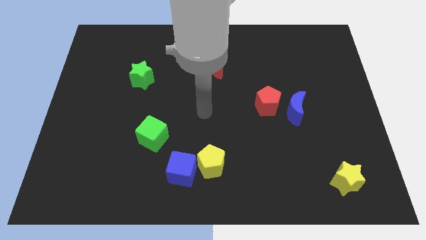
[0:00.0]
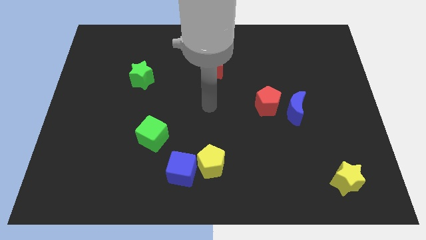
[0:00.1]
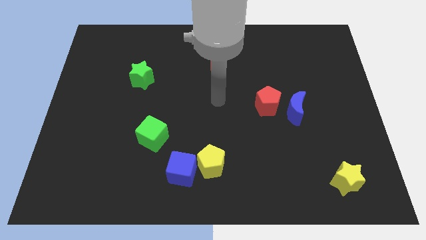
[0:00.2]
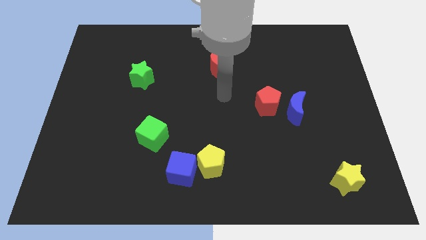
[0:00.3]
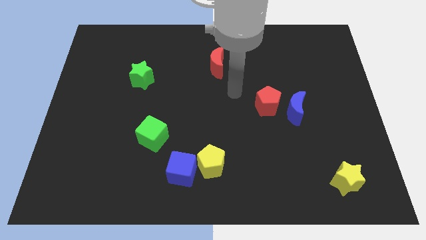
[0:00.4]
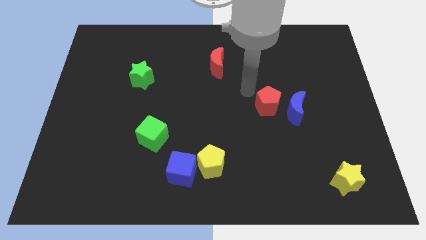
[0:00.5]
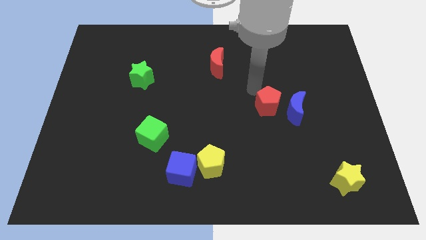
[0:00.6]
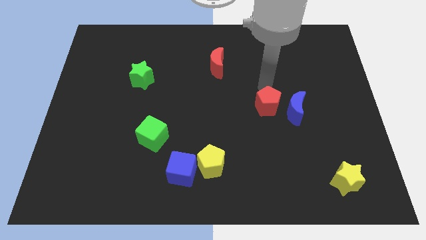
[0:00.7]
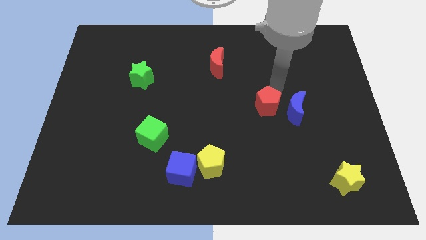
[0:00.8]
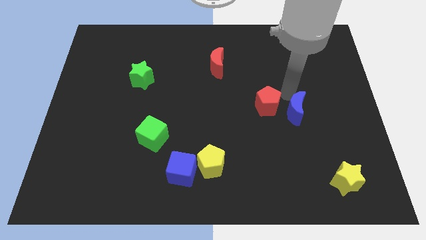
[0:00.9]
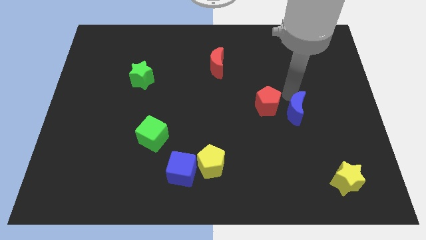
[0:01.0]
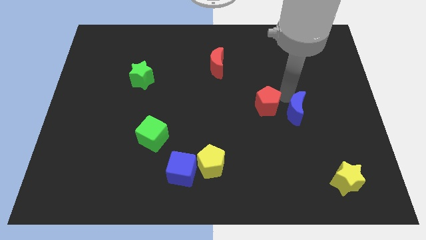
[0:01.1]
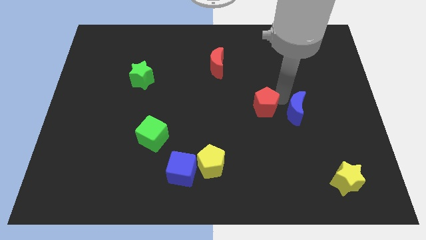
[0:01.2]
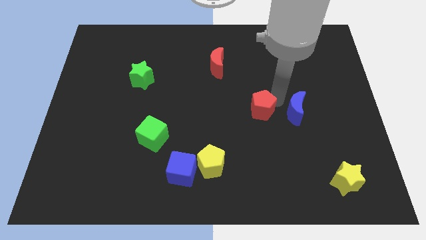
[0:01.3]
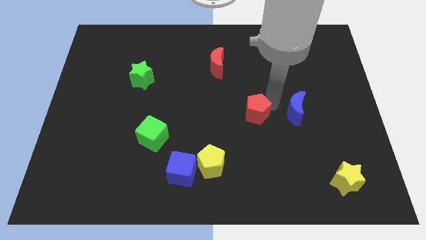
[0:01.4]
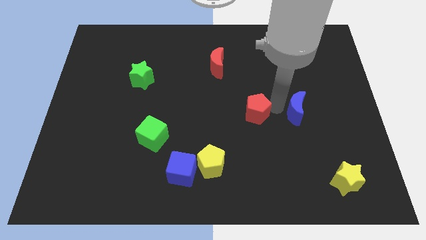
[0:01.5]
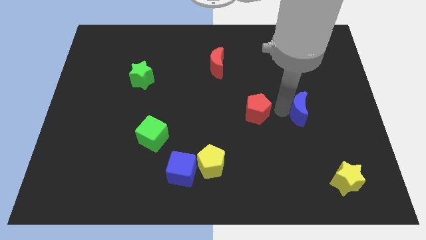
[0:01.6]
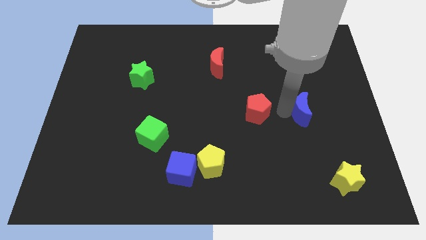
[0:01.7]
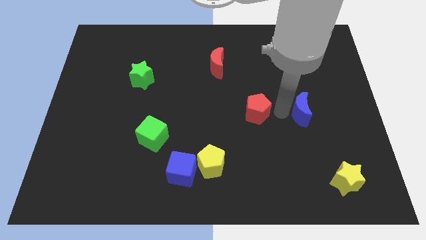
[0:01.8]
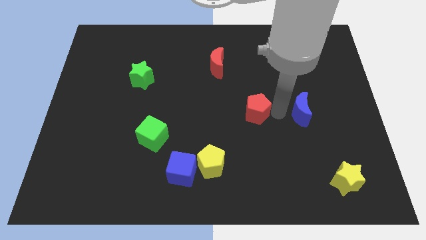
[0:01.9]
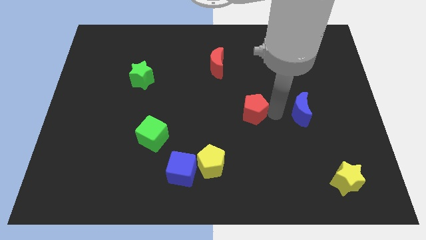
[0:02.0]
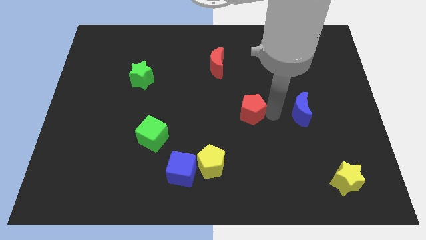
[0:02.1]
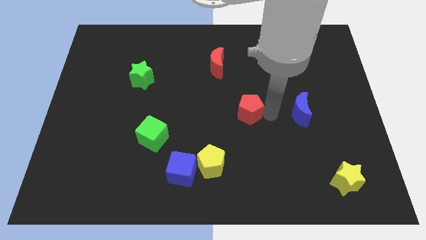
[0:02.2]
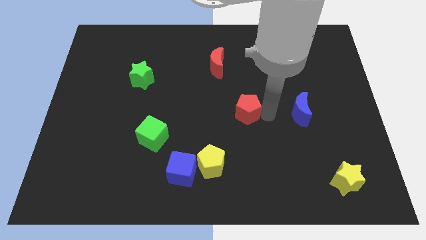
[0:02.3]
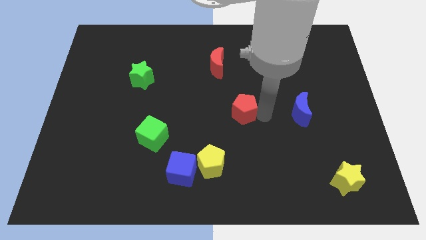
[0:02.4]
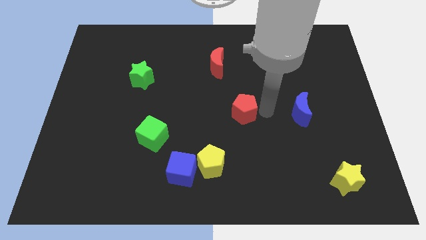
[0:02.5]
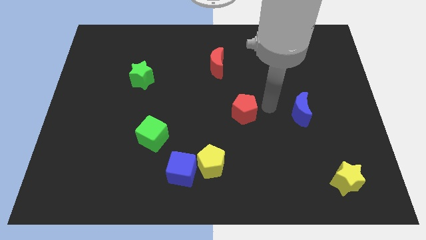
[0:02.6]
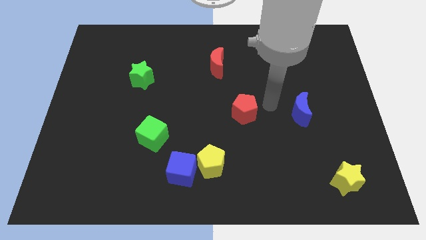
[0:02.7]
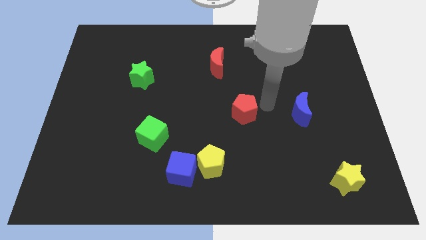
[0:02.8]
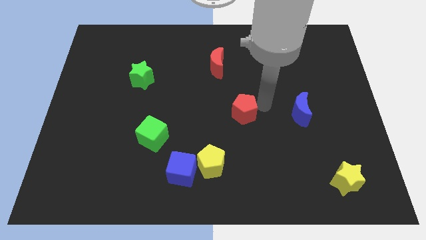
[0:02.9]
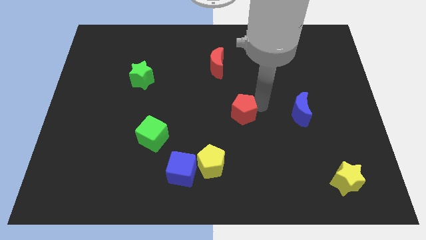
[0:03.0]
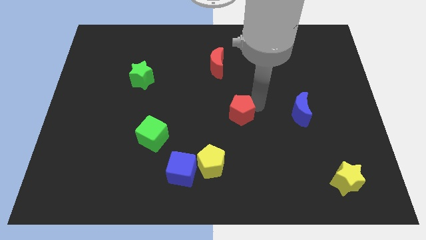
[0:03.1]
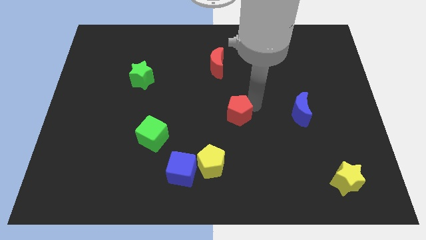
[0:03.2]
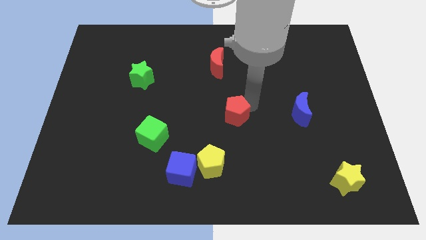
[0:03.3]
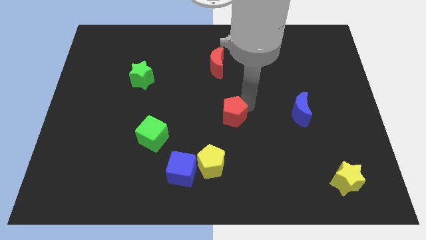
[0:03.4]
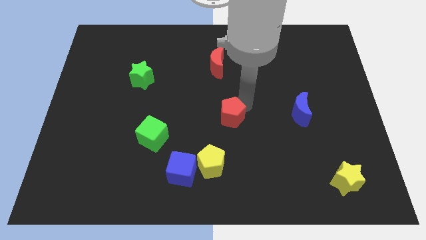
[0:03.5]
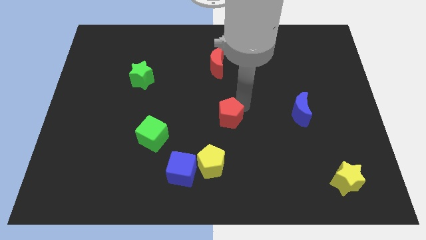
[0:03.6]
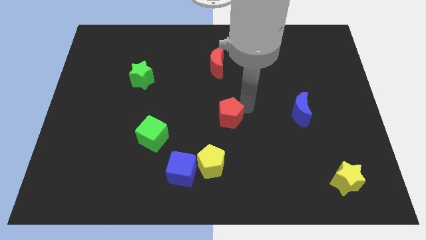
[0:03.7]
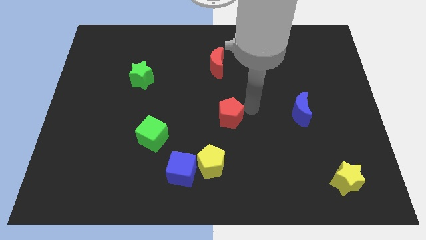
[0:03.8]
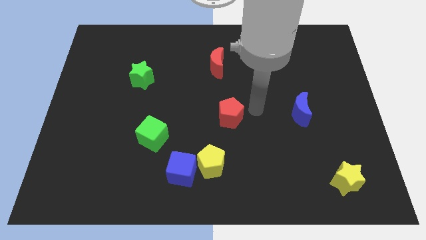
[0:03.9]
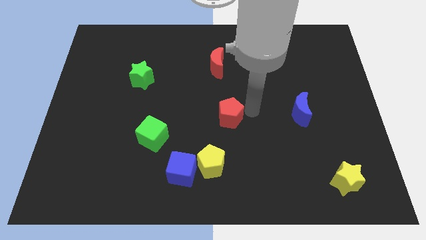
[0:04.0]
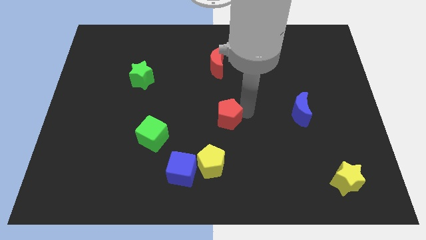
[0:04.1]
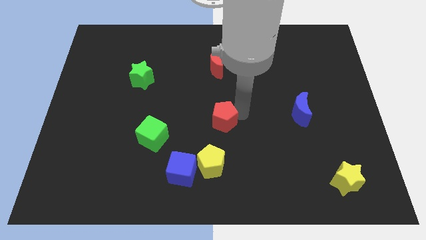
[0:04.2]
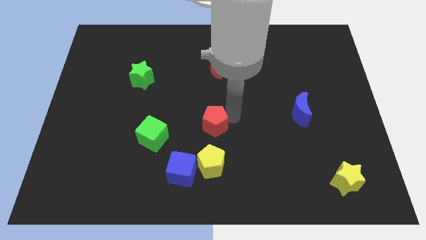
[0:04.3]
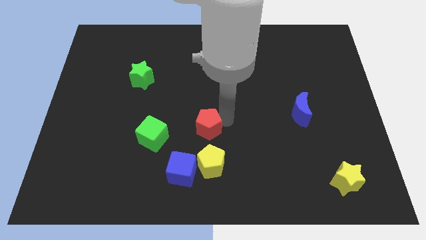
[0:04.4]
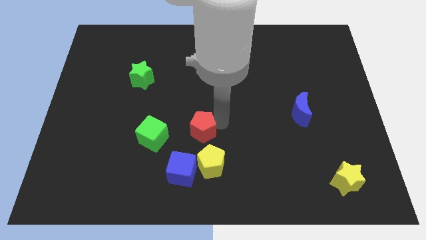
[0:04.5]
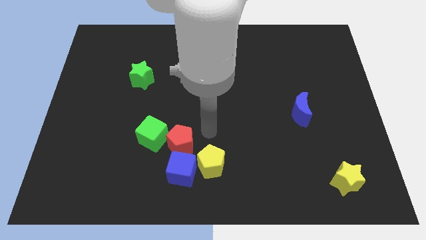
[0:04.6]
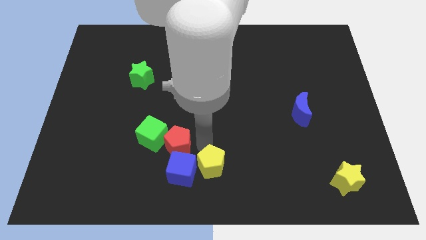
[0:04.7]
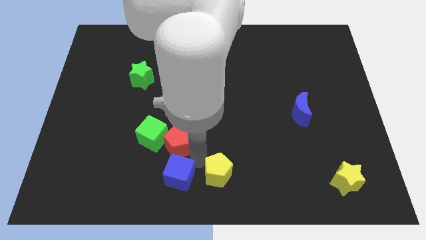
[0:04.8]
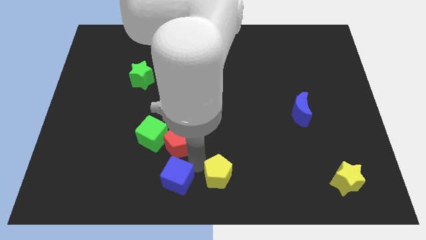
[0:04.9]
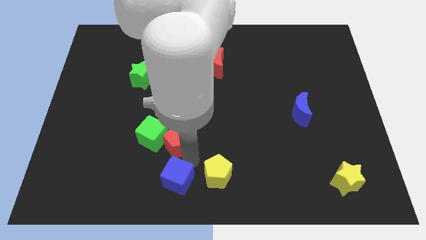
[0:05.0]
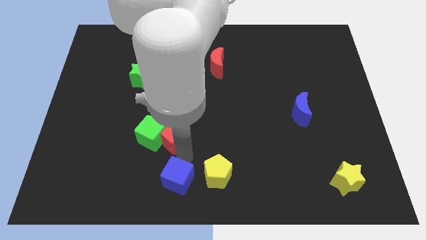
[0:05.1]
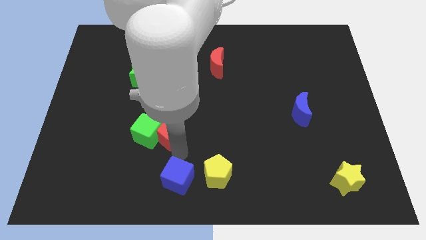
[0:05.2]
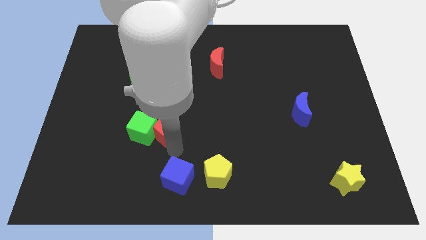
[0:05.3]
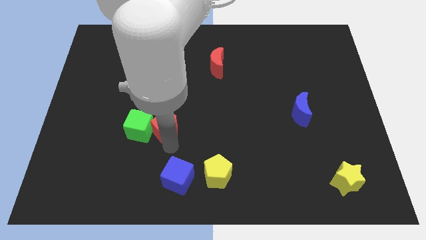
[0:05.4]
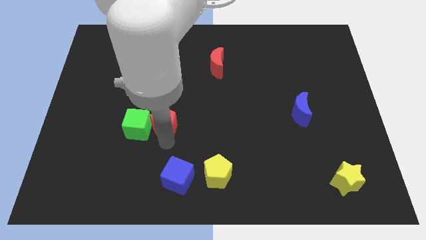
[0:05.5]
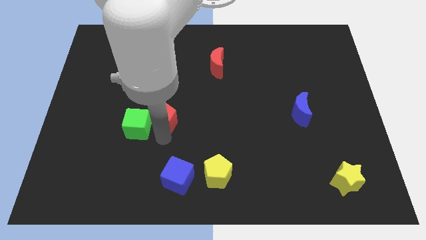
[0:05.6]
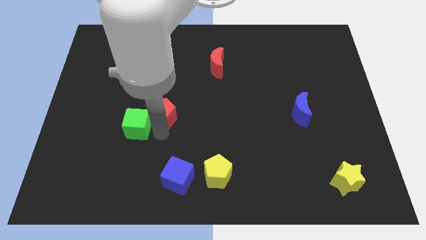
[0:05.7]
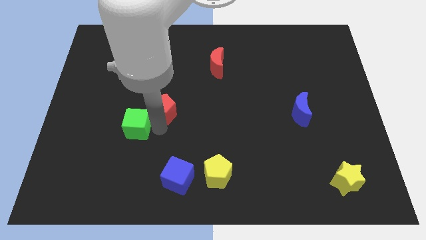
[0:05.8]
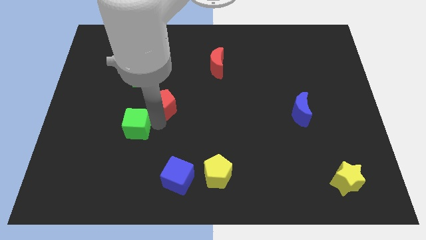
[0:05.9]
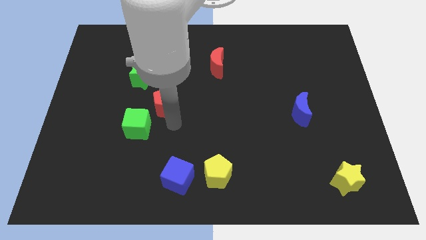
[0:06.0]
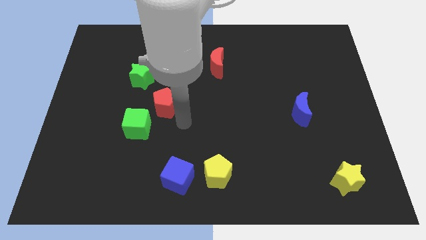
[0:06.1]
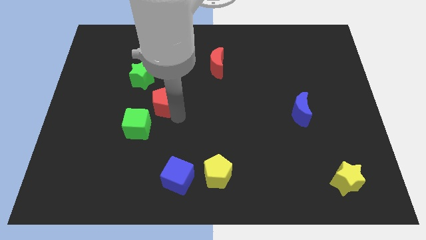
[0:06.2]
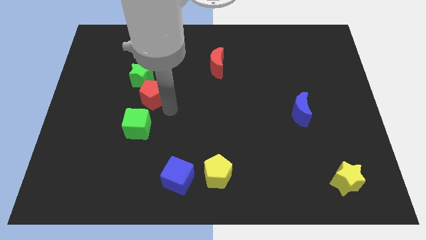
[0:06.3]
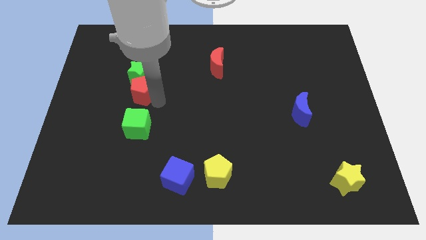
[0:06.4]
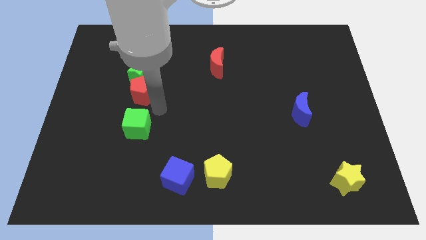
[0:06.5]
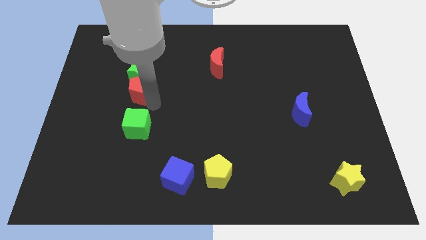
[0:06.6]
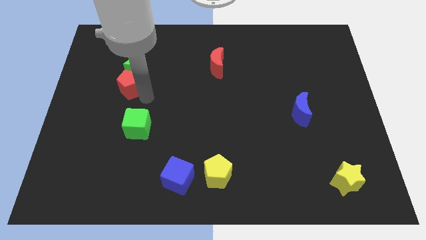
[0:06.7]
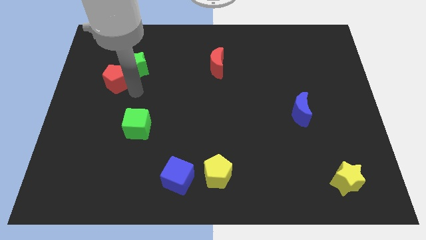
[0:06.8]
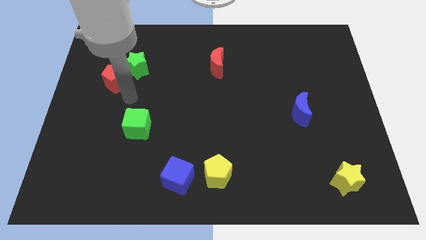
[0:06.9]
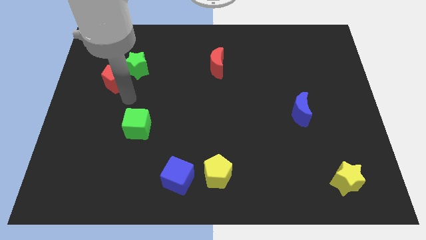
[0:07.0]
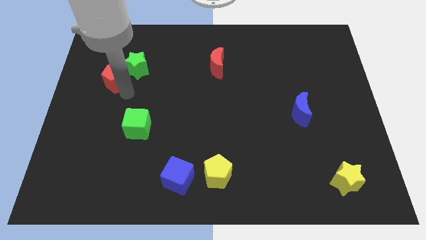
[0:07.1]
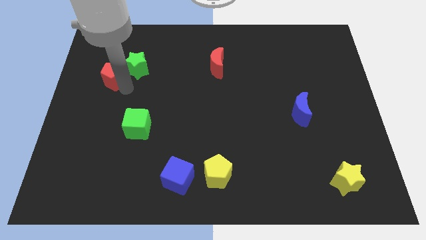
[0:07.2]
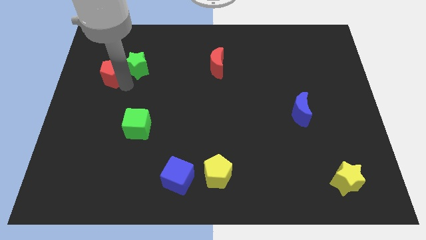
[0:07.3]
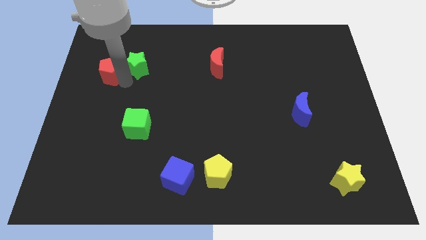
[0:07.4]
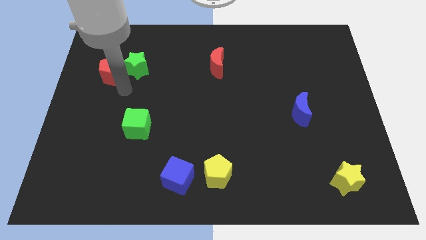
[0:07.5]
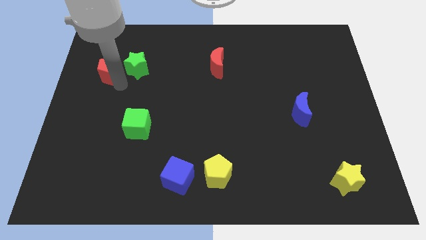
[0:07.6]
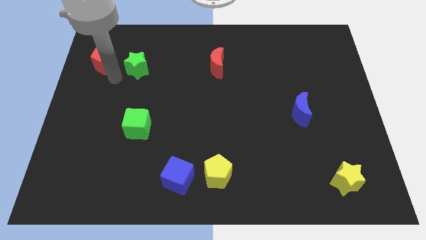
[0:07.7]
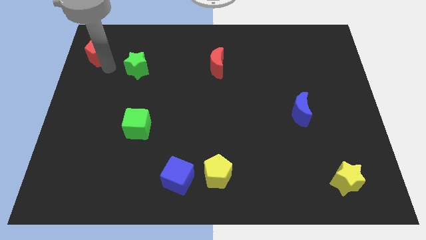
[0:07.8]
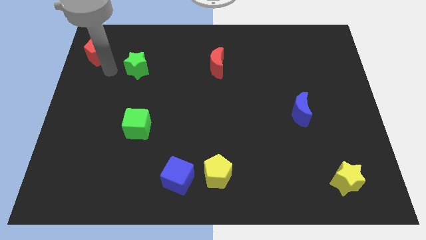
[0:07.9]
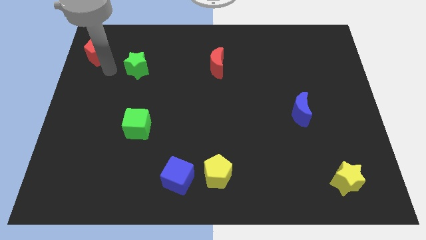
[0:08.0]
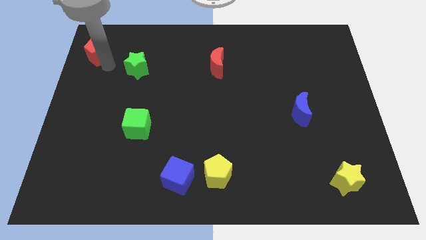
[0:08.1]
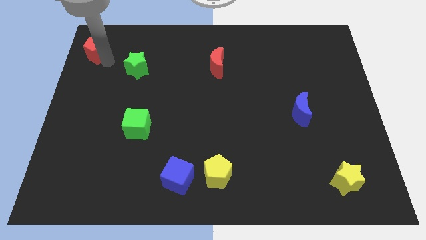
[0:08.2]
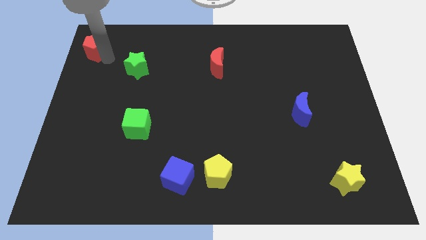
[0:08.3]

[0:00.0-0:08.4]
move the red pentagon to the top left of the board
